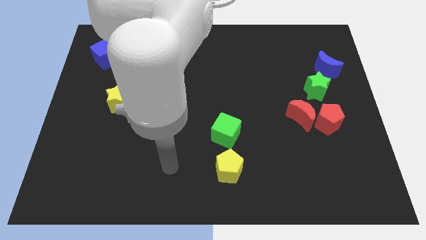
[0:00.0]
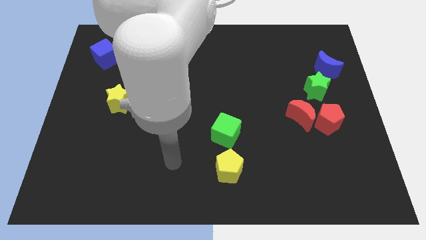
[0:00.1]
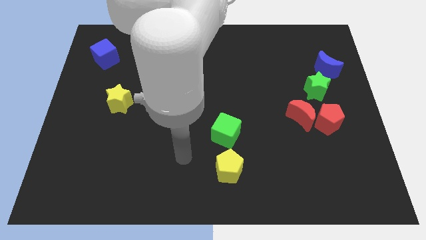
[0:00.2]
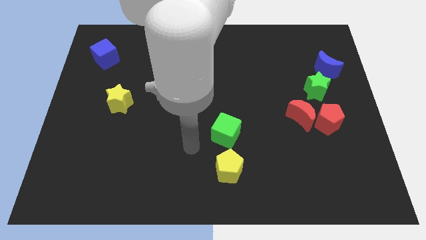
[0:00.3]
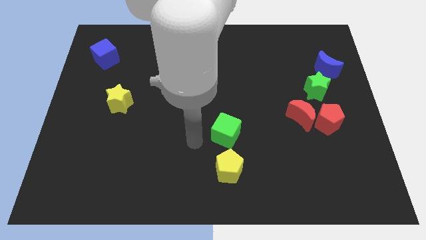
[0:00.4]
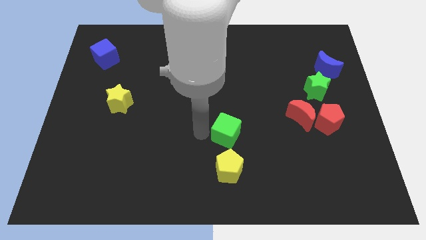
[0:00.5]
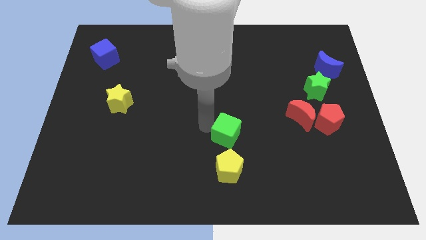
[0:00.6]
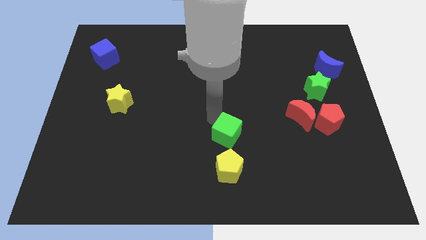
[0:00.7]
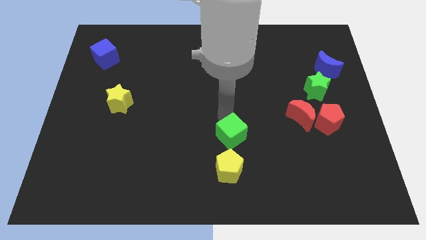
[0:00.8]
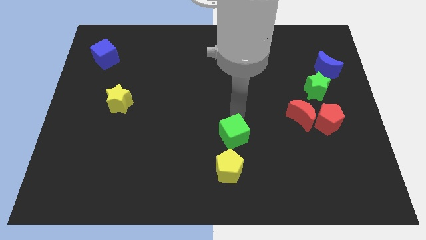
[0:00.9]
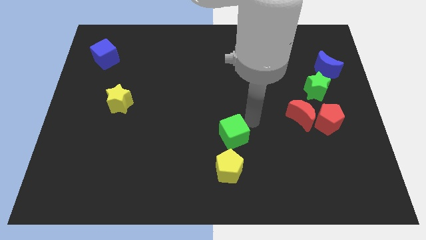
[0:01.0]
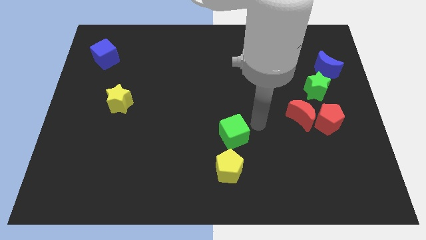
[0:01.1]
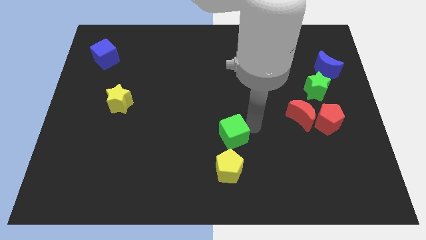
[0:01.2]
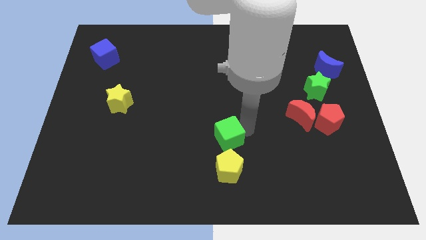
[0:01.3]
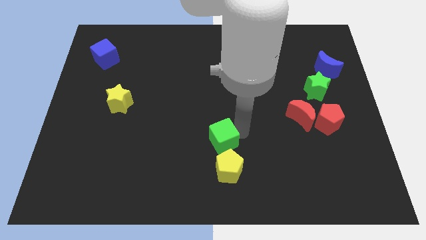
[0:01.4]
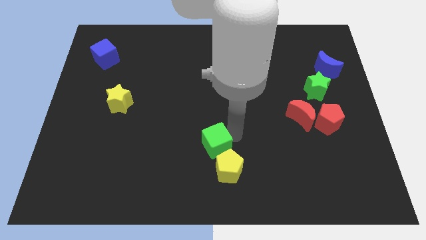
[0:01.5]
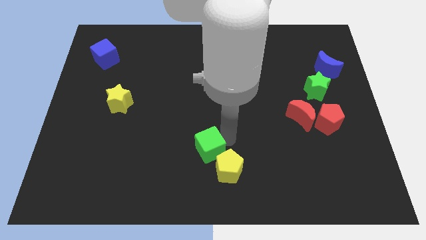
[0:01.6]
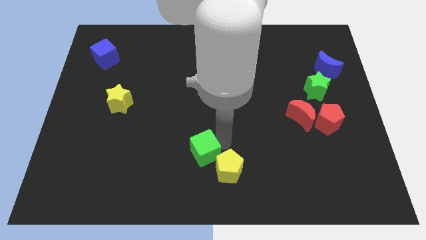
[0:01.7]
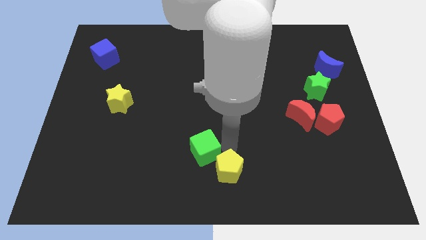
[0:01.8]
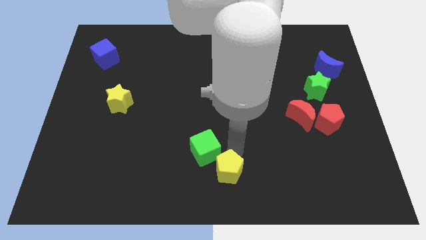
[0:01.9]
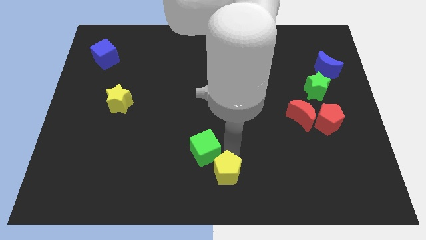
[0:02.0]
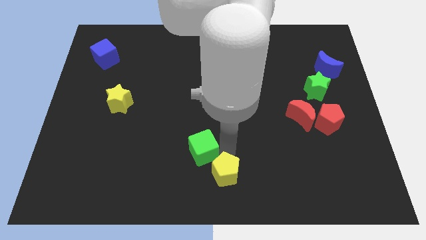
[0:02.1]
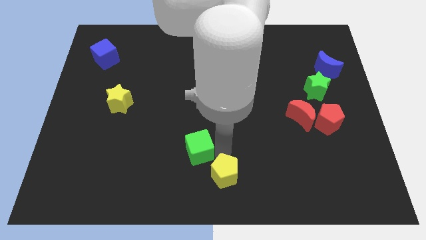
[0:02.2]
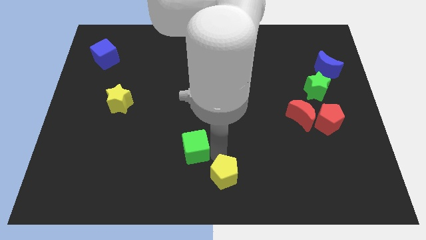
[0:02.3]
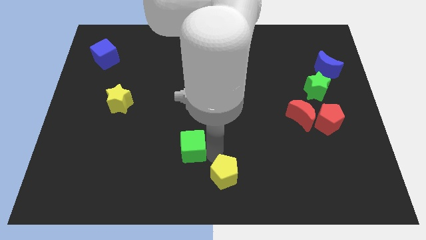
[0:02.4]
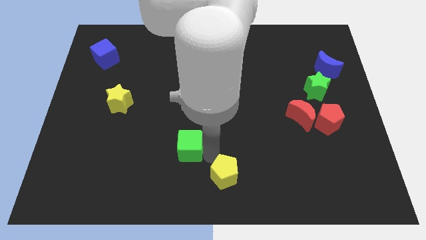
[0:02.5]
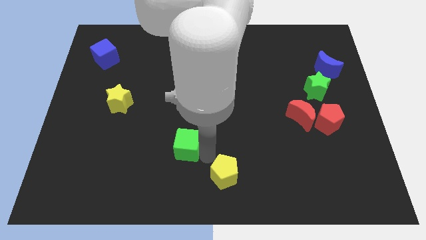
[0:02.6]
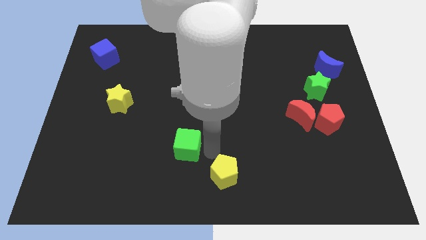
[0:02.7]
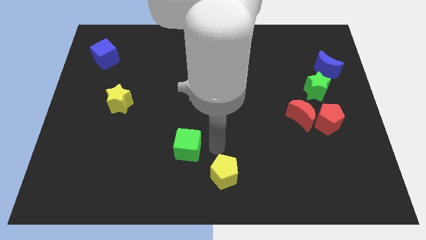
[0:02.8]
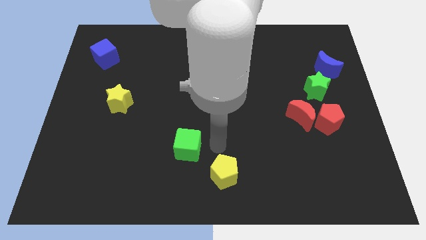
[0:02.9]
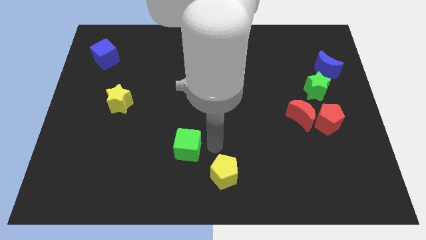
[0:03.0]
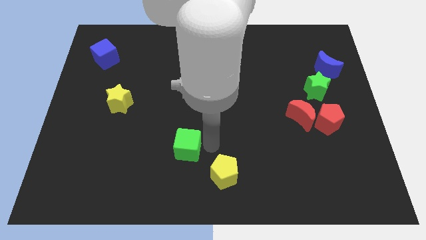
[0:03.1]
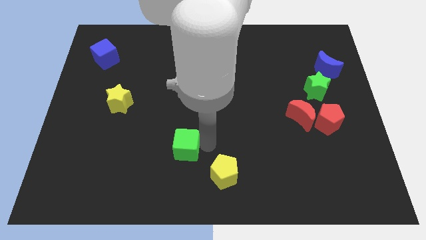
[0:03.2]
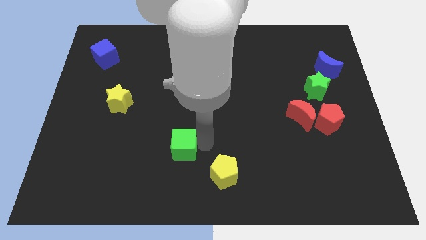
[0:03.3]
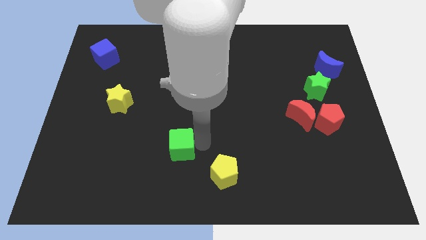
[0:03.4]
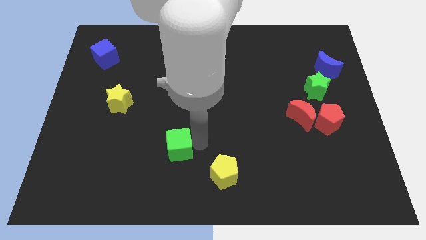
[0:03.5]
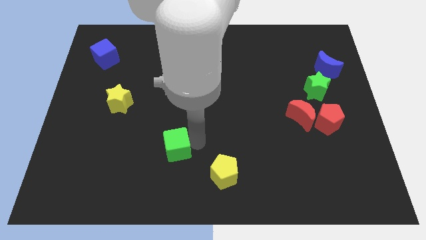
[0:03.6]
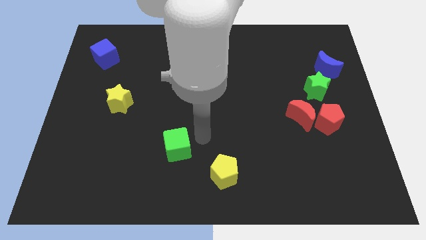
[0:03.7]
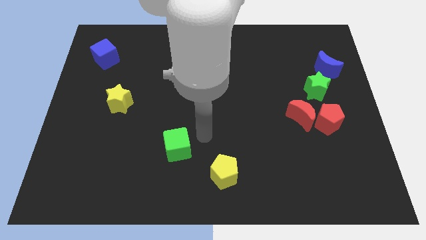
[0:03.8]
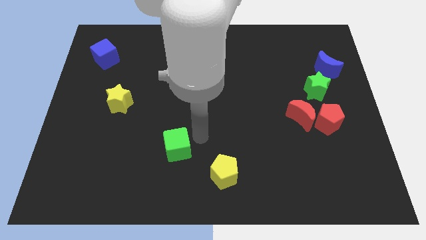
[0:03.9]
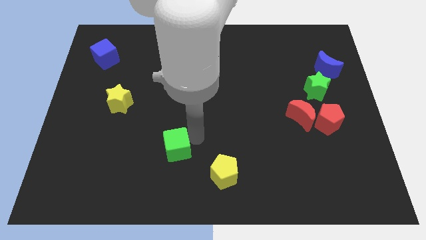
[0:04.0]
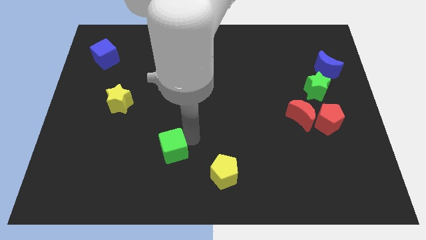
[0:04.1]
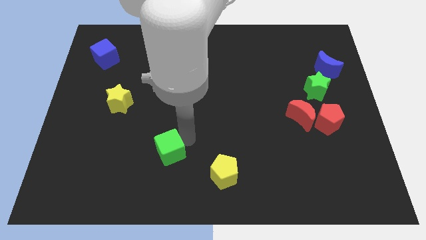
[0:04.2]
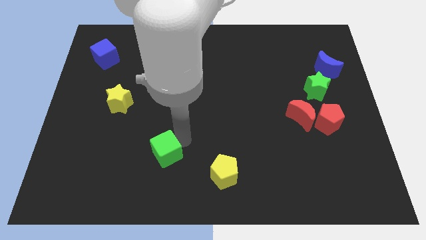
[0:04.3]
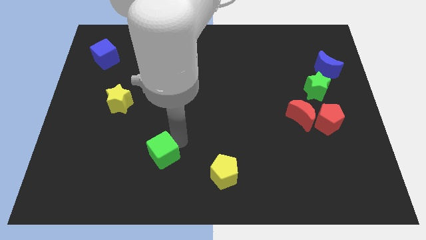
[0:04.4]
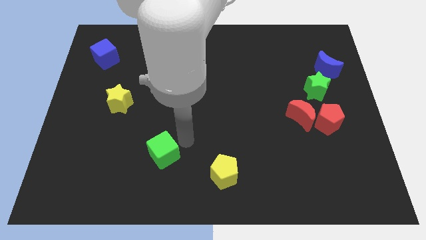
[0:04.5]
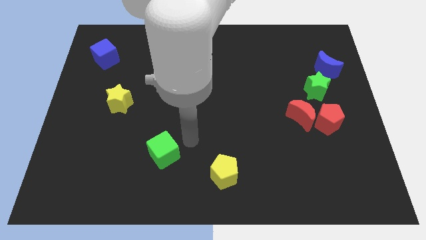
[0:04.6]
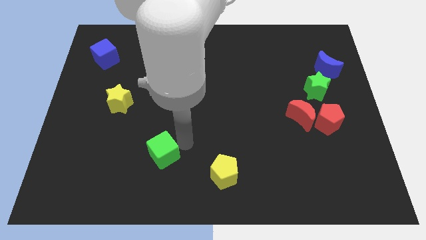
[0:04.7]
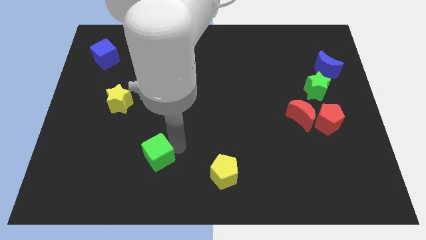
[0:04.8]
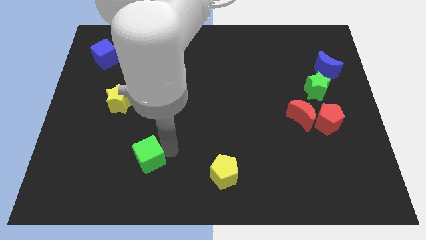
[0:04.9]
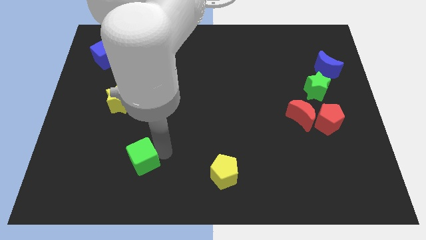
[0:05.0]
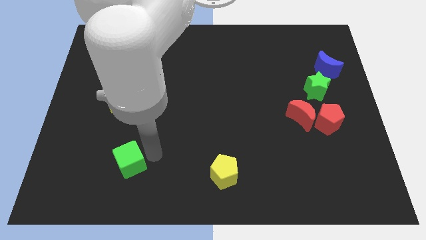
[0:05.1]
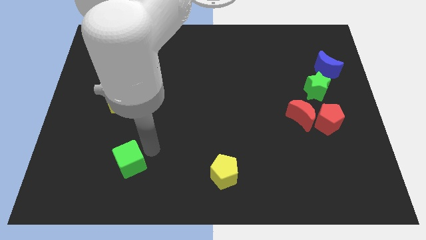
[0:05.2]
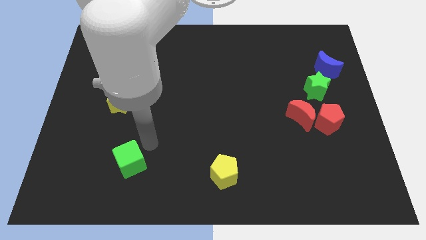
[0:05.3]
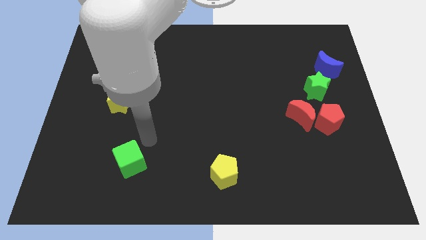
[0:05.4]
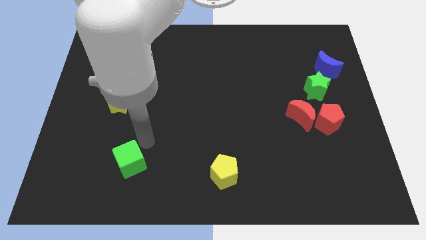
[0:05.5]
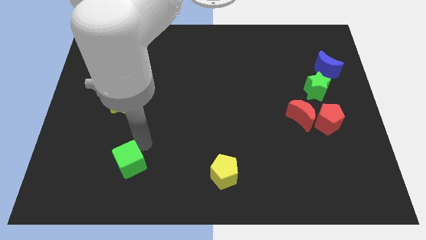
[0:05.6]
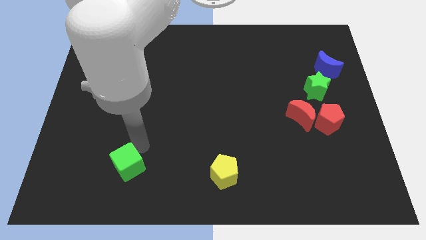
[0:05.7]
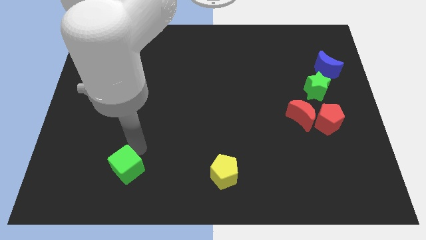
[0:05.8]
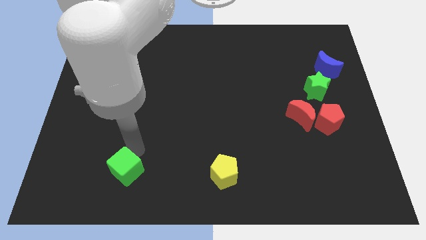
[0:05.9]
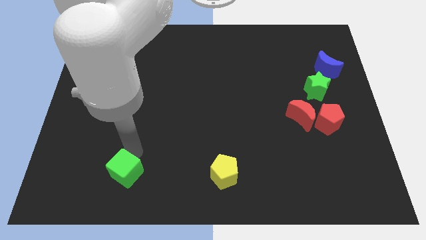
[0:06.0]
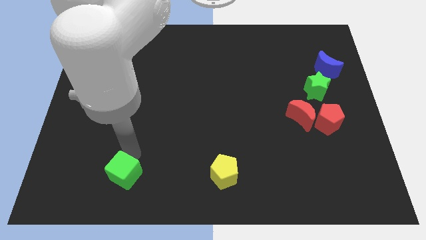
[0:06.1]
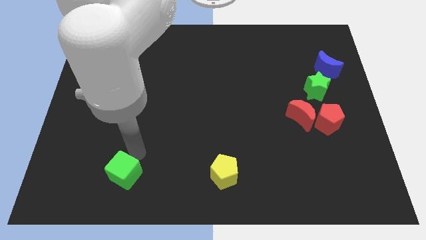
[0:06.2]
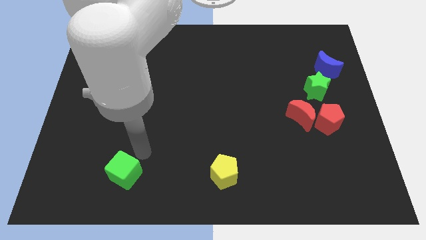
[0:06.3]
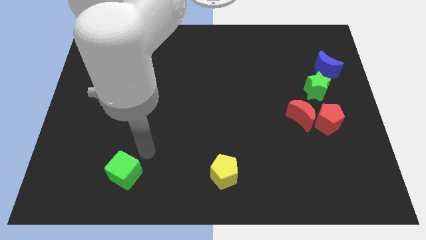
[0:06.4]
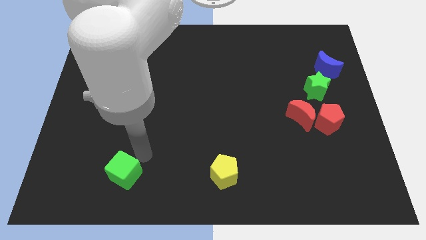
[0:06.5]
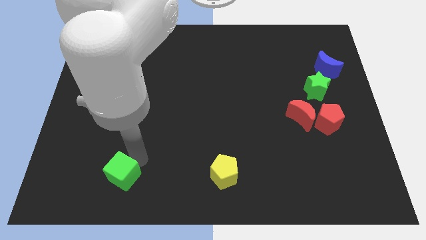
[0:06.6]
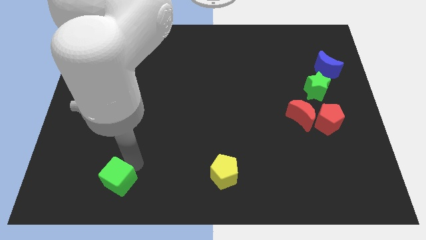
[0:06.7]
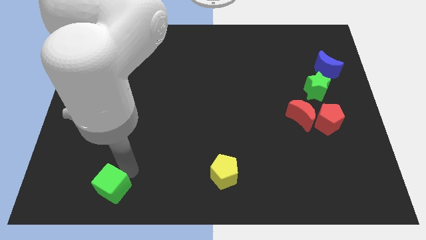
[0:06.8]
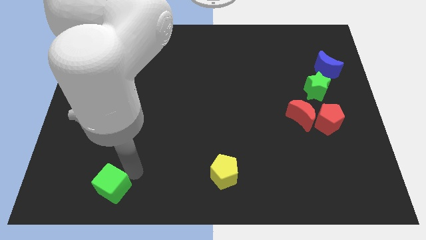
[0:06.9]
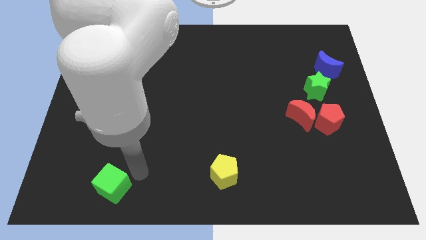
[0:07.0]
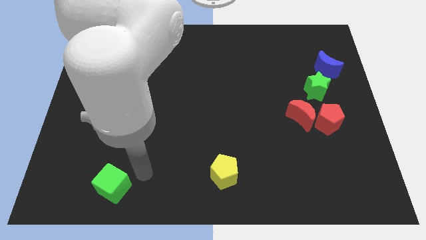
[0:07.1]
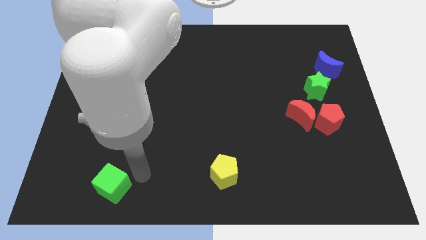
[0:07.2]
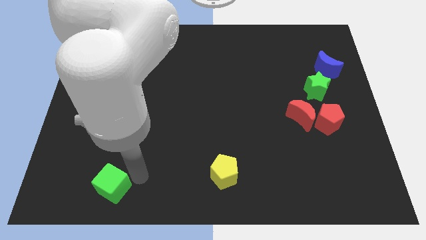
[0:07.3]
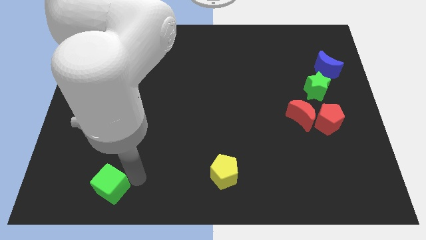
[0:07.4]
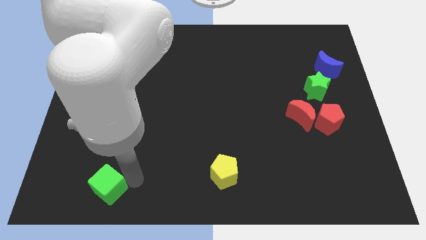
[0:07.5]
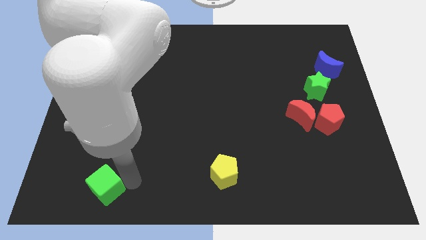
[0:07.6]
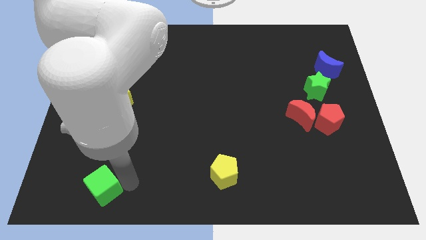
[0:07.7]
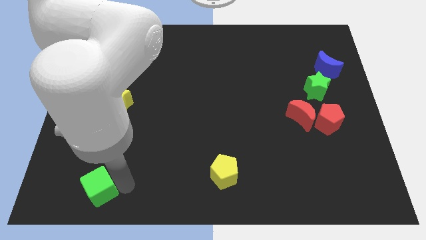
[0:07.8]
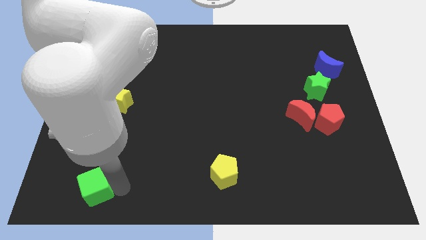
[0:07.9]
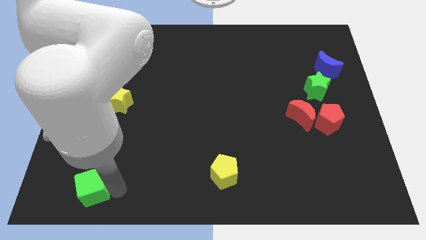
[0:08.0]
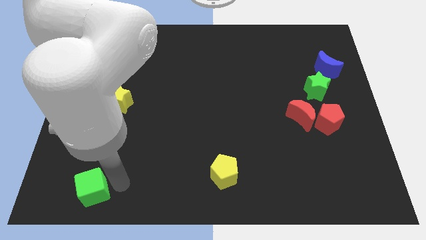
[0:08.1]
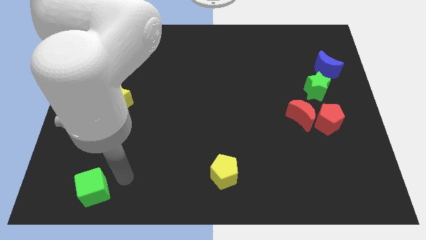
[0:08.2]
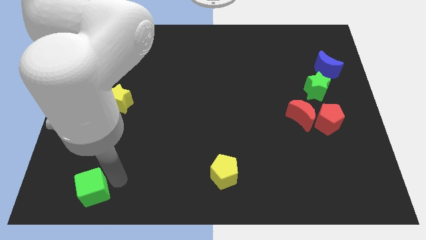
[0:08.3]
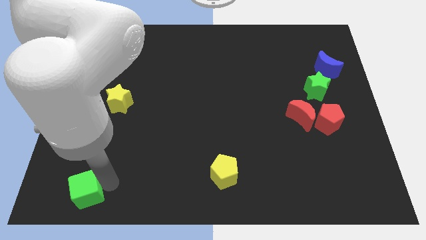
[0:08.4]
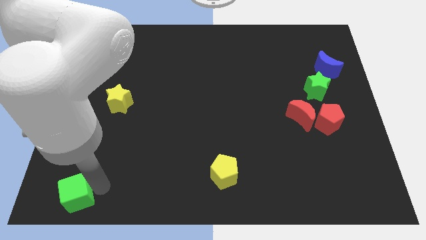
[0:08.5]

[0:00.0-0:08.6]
put the green cube to the bottom left of the board
